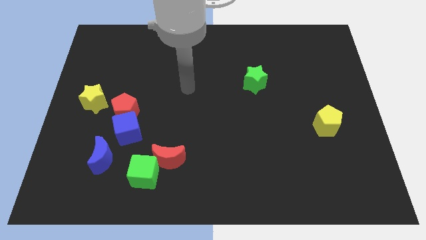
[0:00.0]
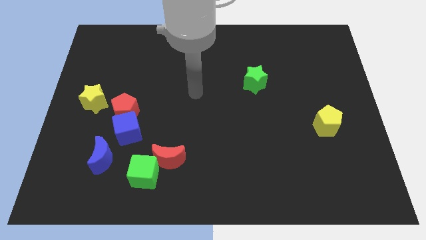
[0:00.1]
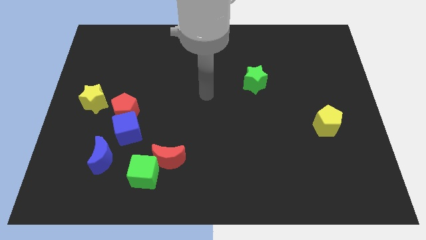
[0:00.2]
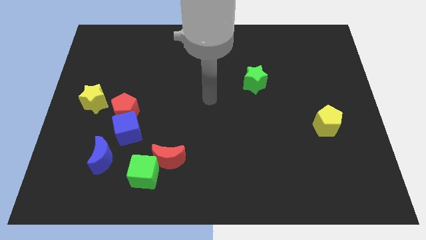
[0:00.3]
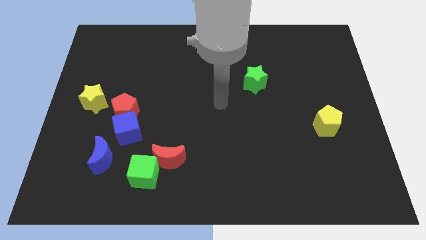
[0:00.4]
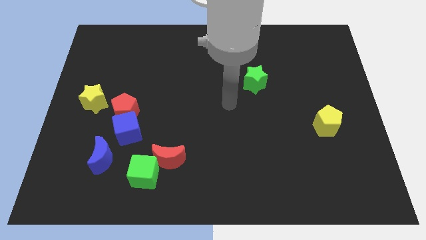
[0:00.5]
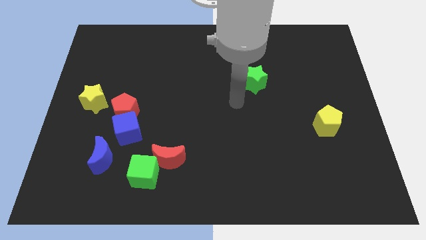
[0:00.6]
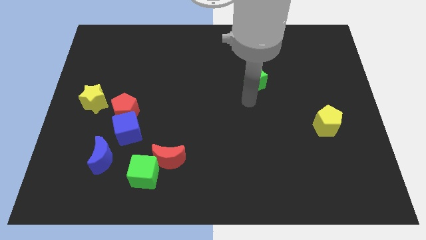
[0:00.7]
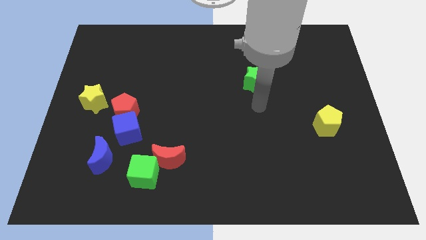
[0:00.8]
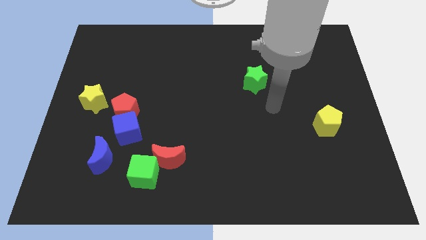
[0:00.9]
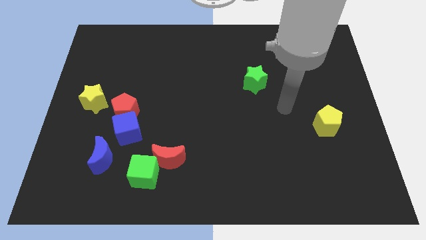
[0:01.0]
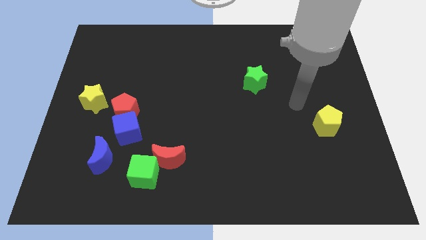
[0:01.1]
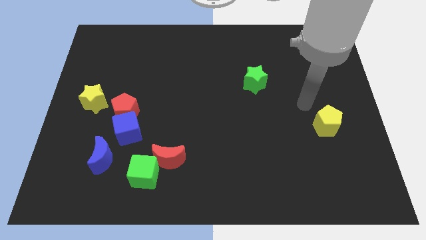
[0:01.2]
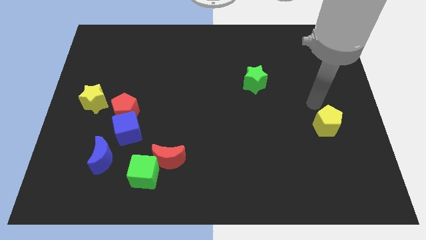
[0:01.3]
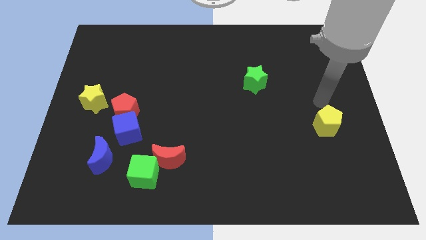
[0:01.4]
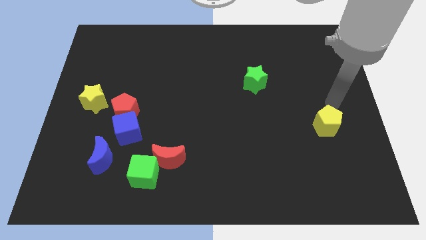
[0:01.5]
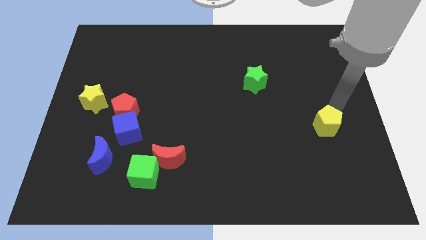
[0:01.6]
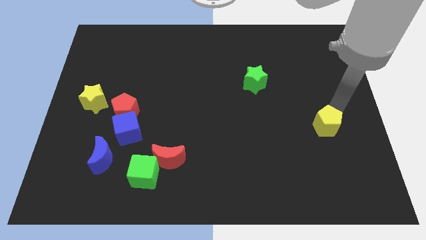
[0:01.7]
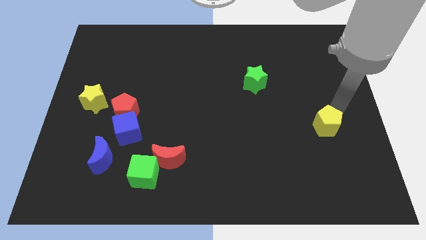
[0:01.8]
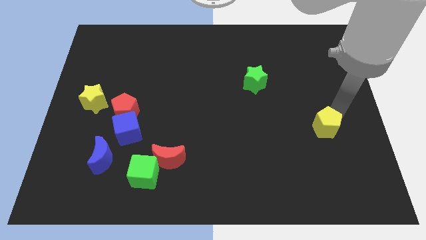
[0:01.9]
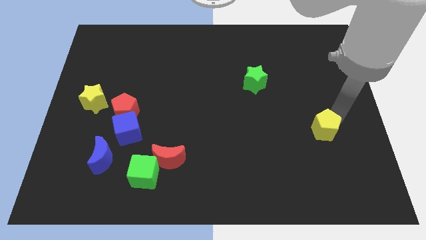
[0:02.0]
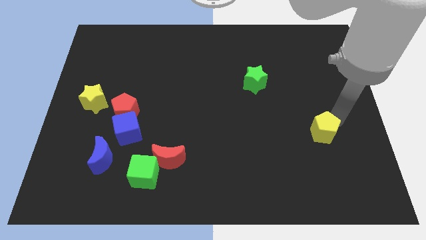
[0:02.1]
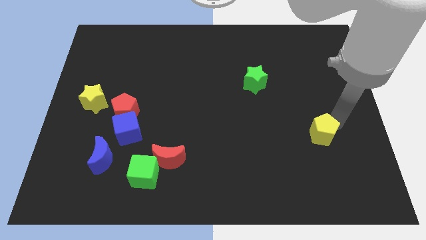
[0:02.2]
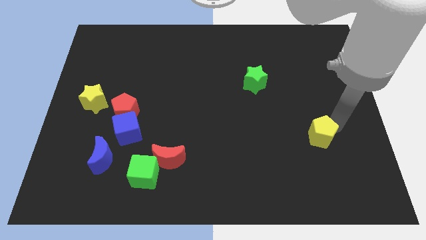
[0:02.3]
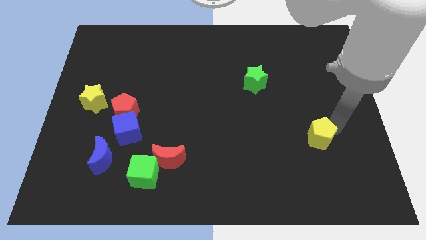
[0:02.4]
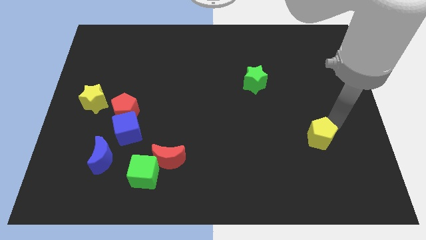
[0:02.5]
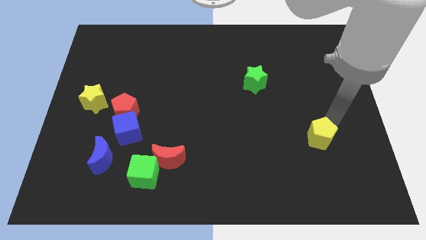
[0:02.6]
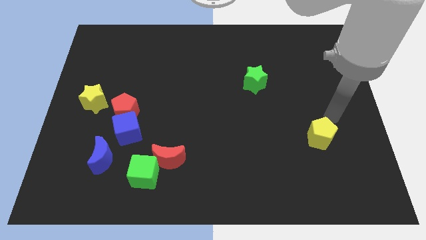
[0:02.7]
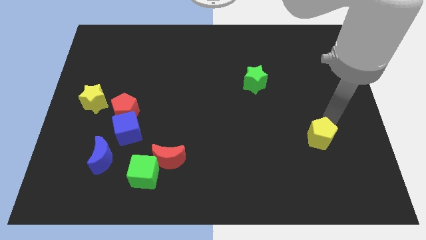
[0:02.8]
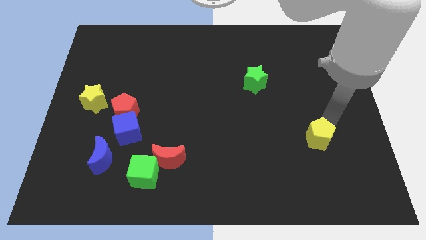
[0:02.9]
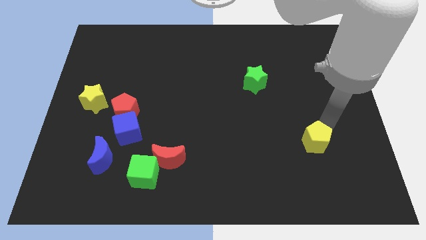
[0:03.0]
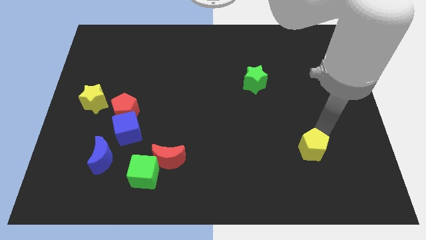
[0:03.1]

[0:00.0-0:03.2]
slightly move the yellow pentagon downwards and to the left diagonally

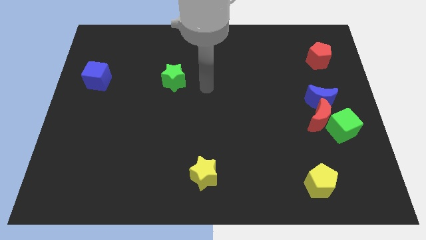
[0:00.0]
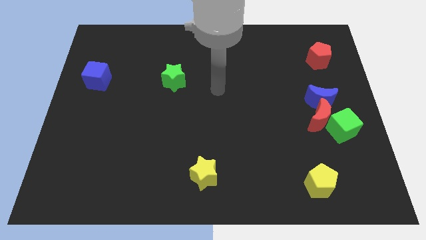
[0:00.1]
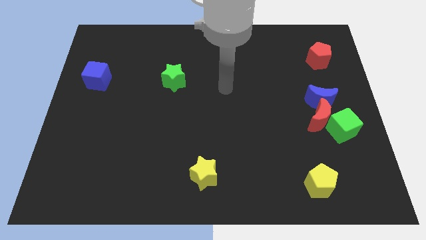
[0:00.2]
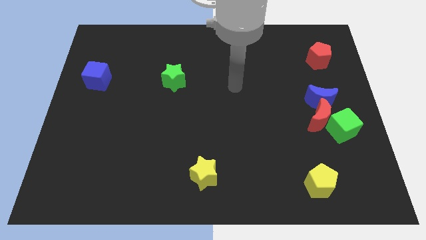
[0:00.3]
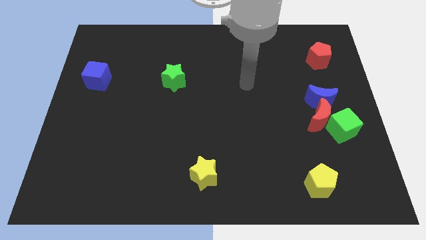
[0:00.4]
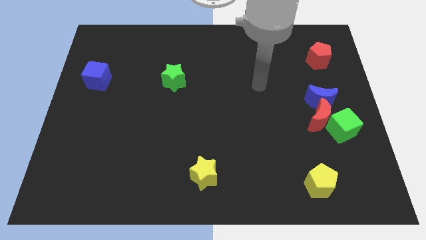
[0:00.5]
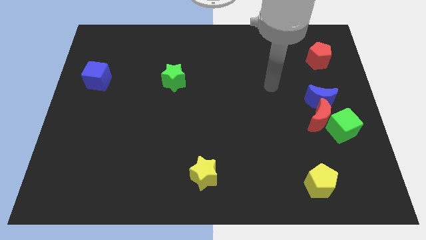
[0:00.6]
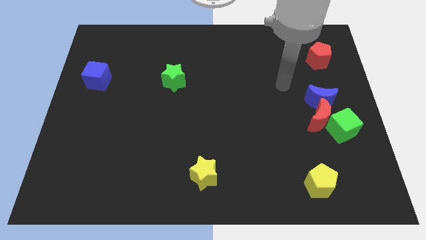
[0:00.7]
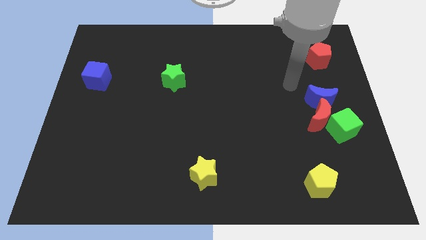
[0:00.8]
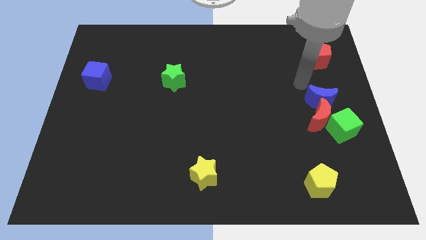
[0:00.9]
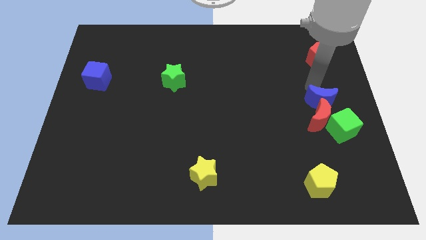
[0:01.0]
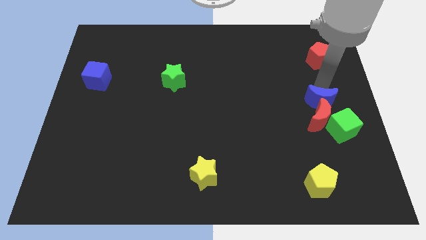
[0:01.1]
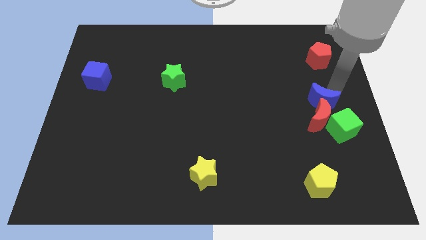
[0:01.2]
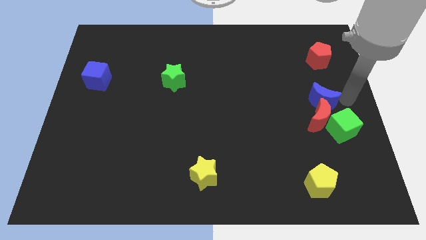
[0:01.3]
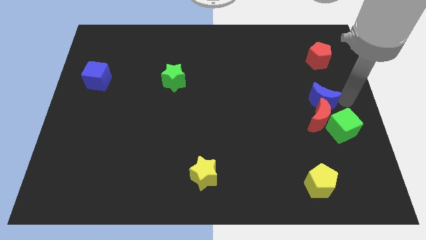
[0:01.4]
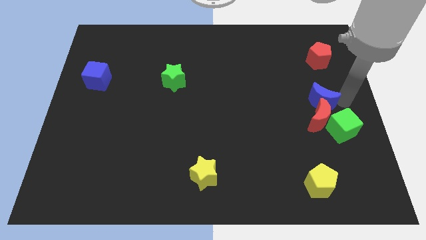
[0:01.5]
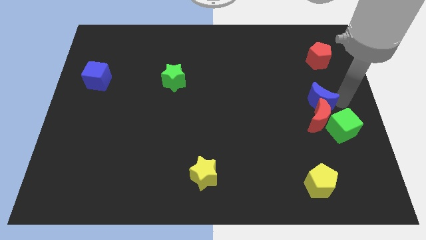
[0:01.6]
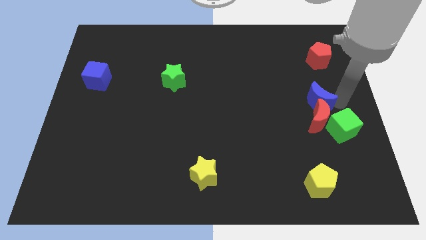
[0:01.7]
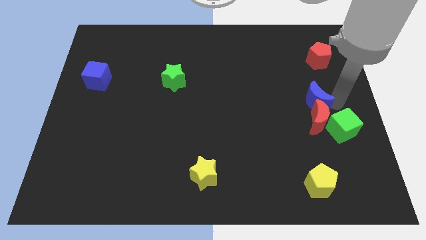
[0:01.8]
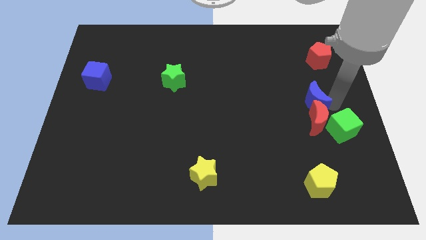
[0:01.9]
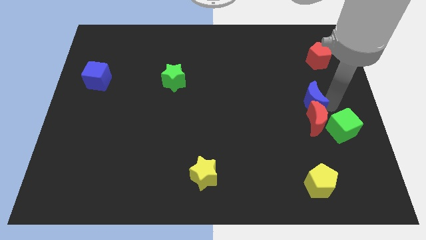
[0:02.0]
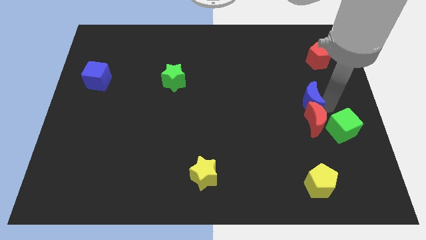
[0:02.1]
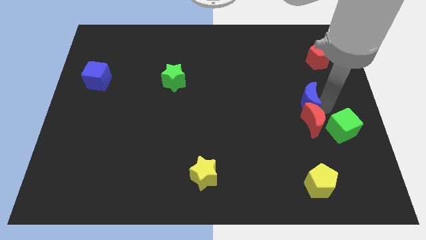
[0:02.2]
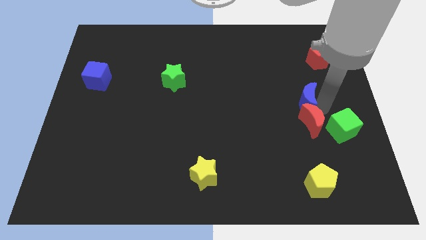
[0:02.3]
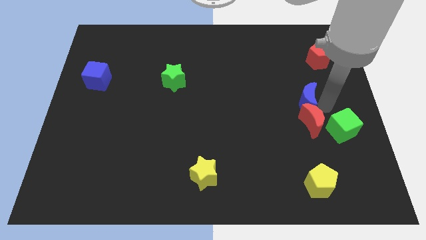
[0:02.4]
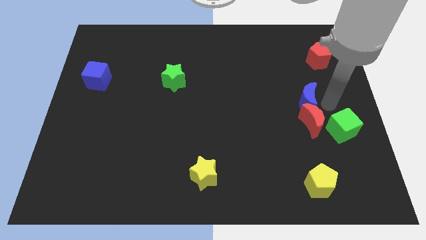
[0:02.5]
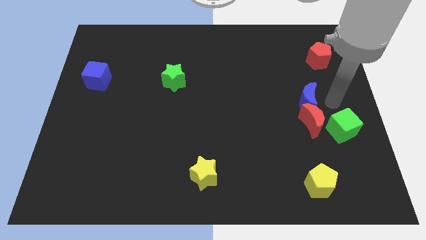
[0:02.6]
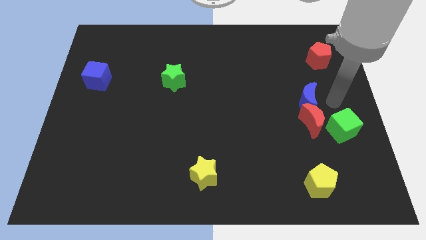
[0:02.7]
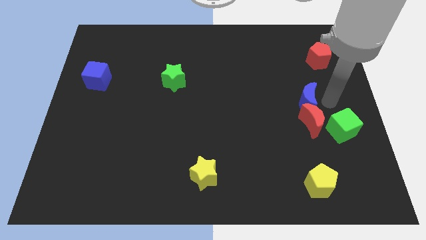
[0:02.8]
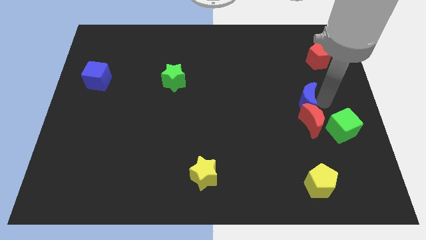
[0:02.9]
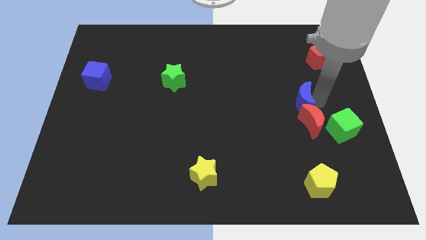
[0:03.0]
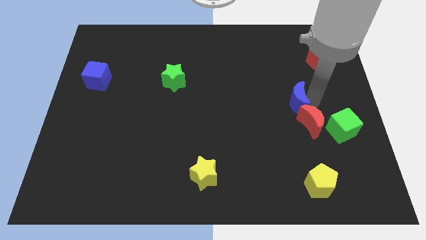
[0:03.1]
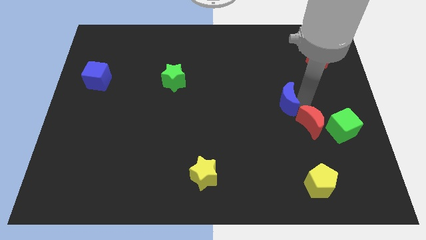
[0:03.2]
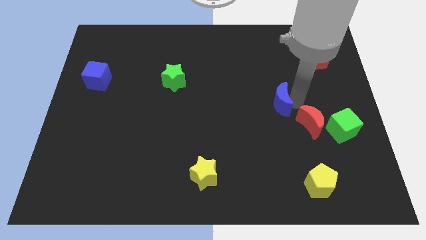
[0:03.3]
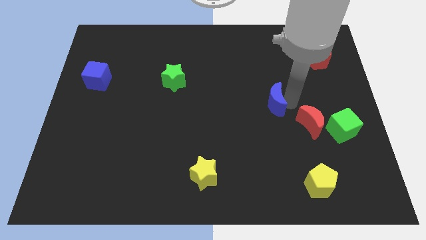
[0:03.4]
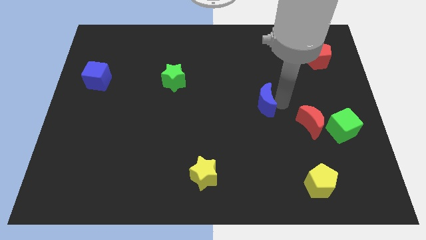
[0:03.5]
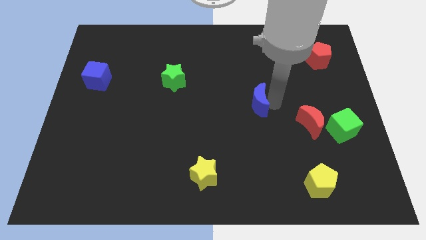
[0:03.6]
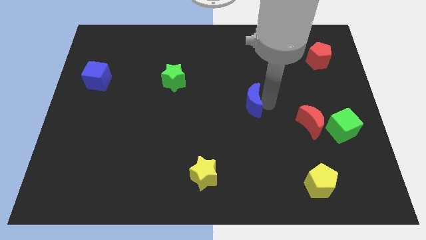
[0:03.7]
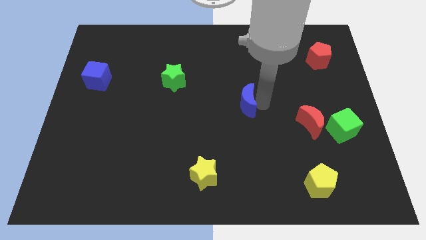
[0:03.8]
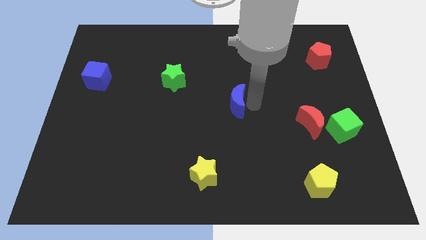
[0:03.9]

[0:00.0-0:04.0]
slide the blue moon left

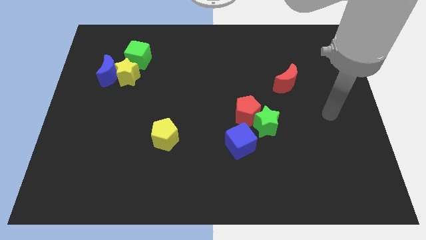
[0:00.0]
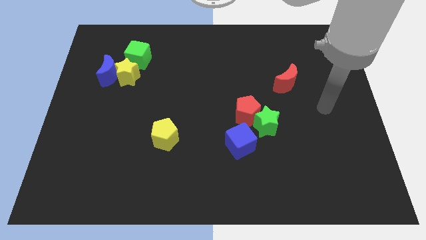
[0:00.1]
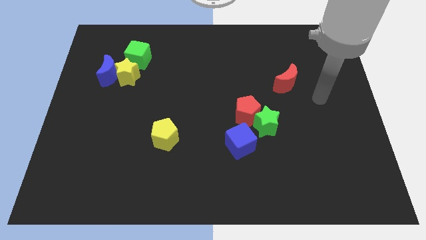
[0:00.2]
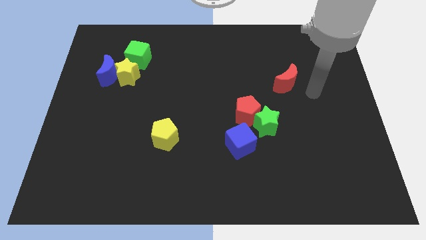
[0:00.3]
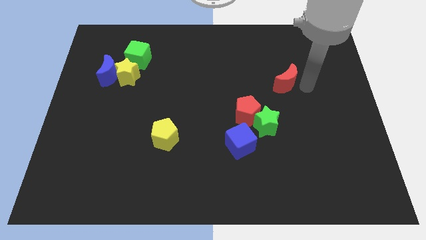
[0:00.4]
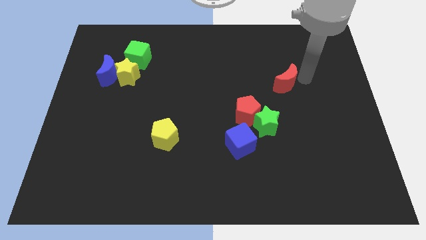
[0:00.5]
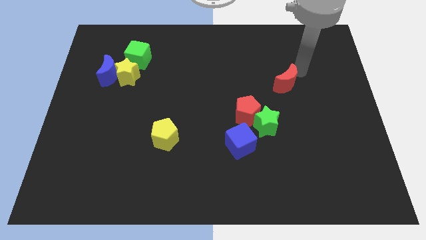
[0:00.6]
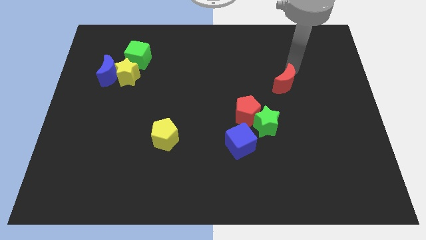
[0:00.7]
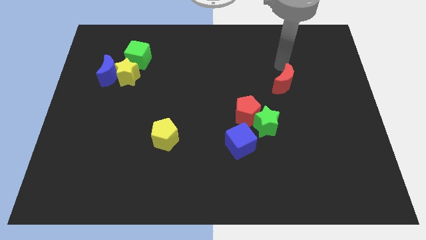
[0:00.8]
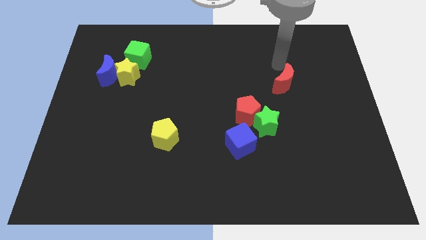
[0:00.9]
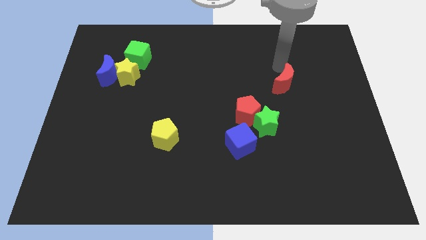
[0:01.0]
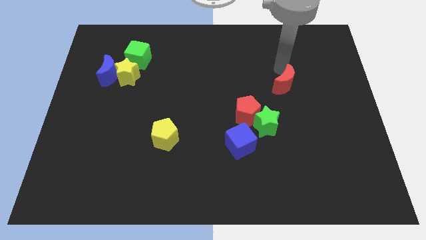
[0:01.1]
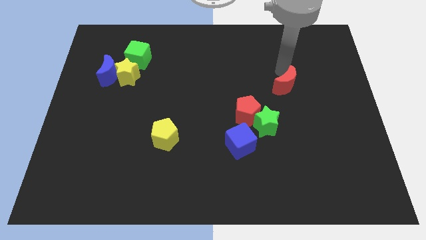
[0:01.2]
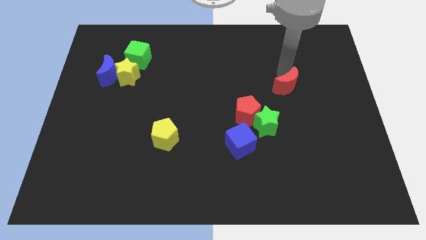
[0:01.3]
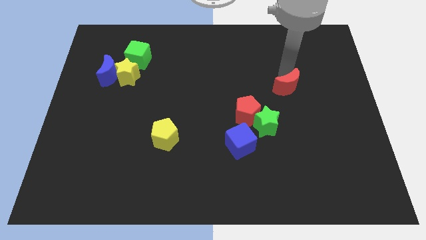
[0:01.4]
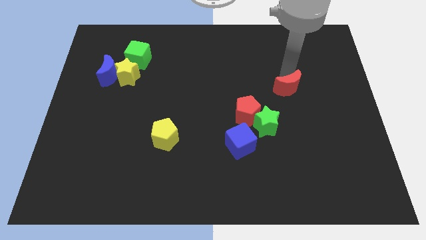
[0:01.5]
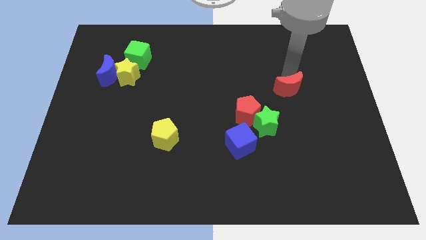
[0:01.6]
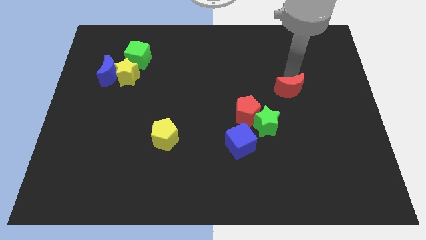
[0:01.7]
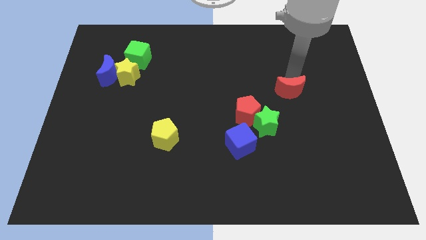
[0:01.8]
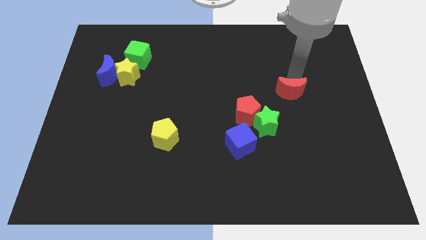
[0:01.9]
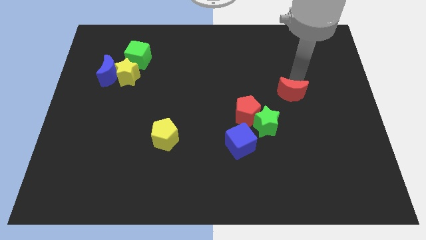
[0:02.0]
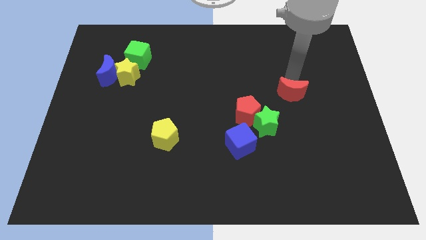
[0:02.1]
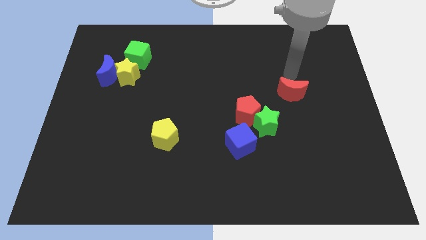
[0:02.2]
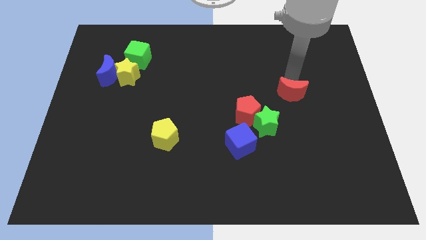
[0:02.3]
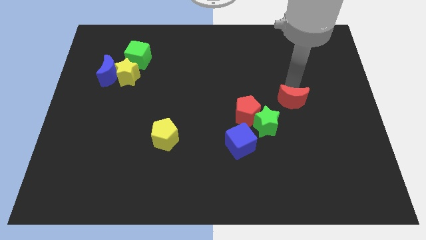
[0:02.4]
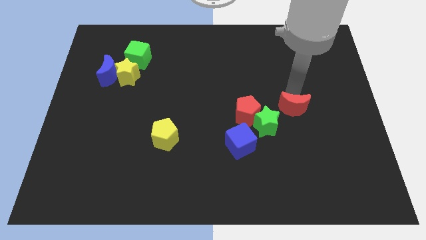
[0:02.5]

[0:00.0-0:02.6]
move the red moon somewhat down
